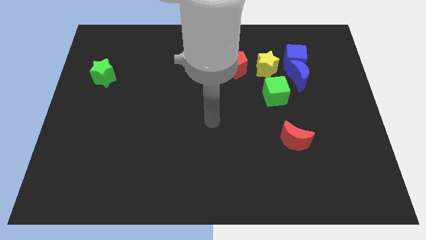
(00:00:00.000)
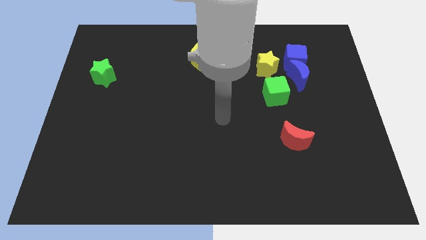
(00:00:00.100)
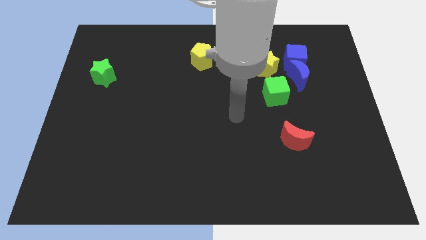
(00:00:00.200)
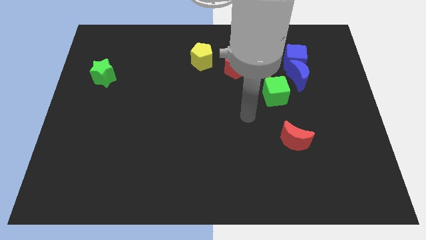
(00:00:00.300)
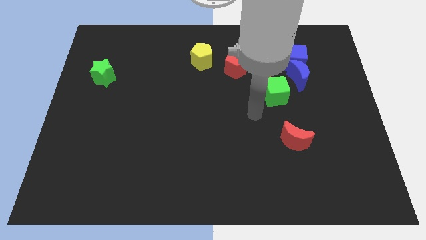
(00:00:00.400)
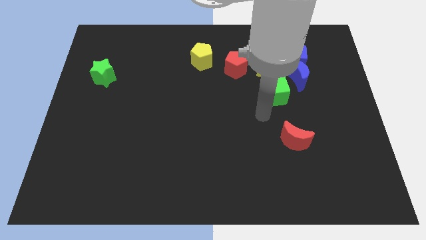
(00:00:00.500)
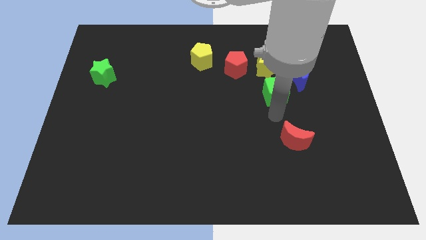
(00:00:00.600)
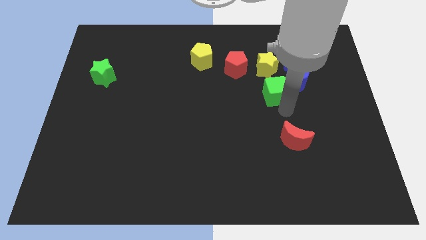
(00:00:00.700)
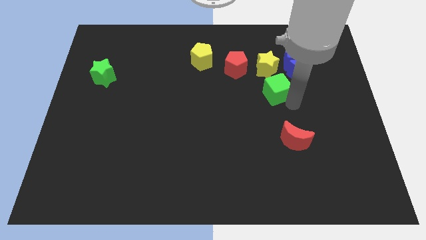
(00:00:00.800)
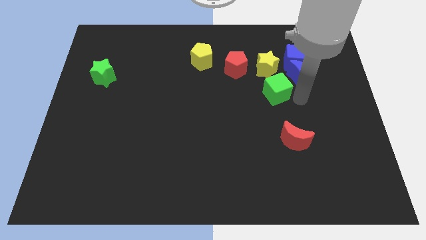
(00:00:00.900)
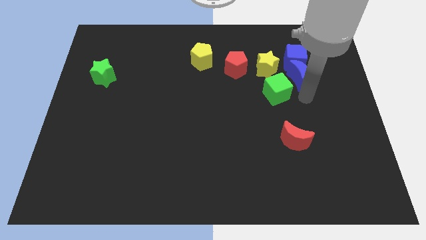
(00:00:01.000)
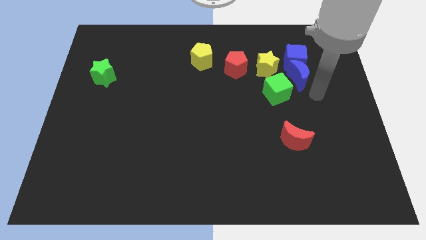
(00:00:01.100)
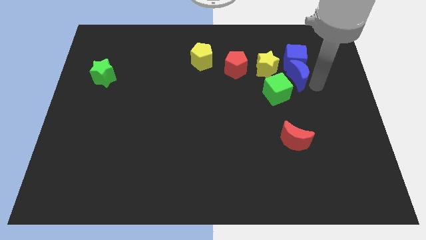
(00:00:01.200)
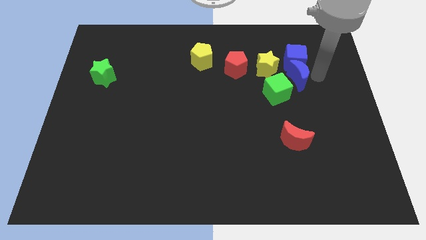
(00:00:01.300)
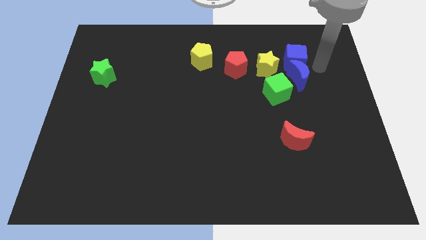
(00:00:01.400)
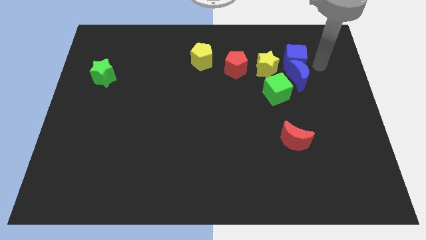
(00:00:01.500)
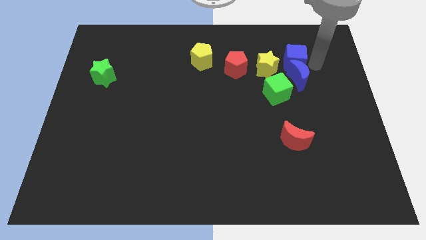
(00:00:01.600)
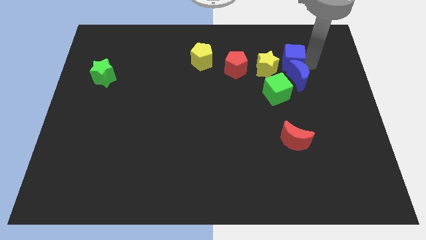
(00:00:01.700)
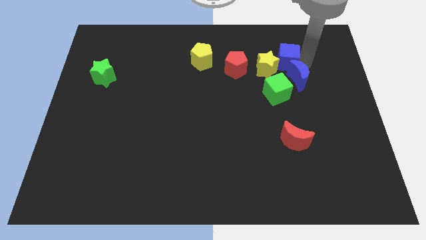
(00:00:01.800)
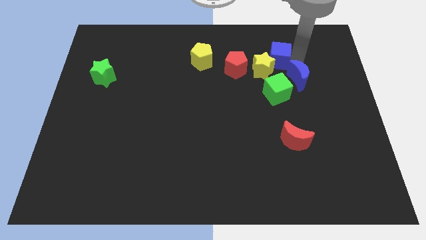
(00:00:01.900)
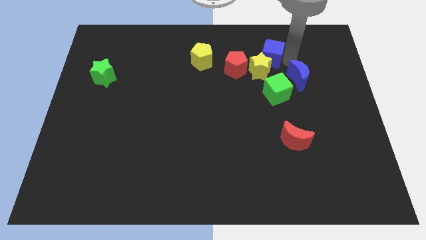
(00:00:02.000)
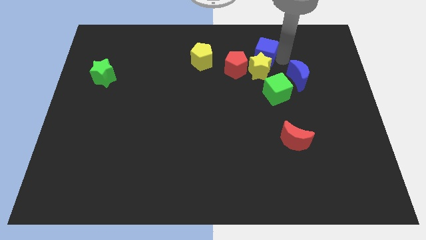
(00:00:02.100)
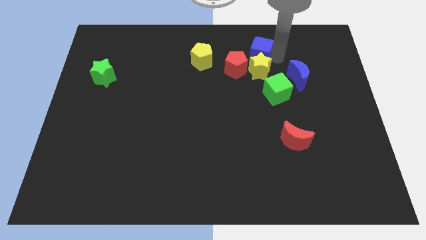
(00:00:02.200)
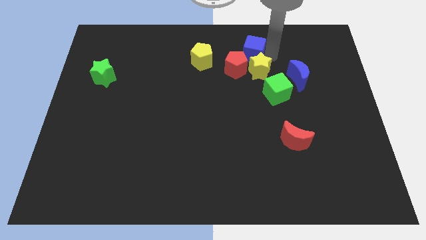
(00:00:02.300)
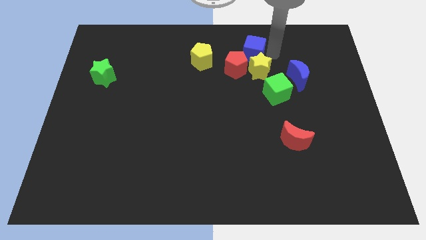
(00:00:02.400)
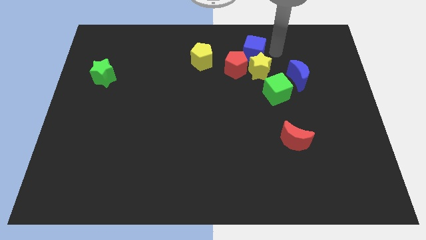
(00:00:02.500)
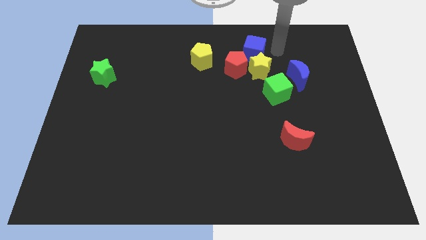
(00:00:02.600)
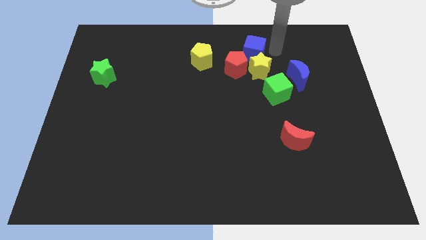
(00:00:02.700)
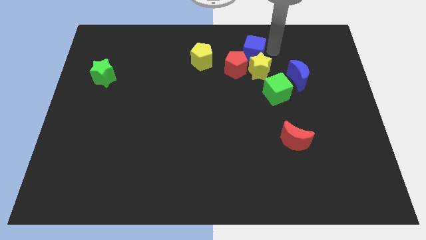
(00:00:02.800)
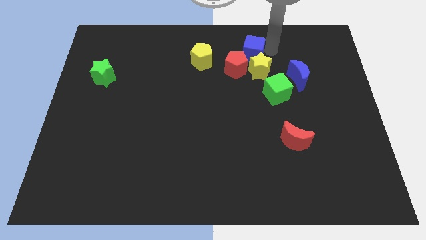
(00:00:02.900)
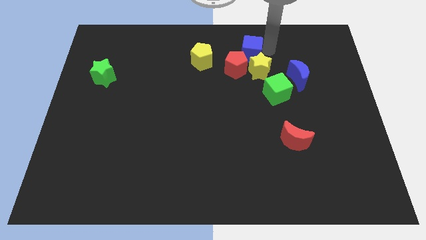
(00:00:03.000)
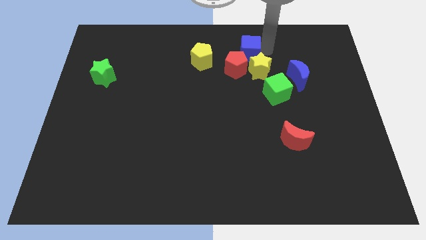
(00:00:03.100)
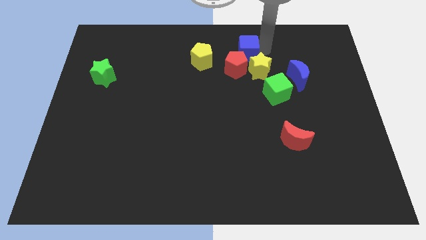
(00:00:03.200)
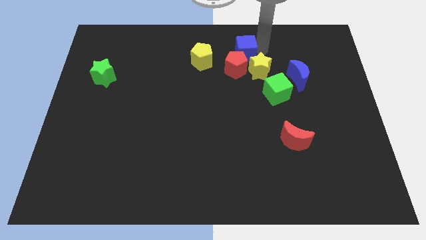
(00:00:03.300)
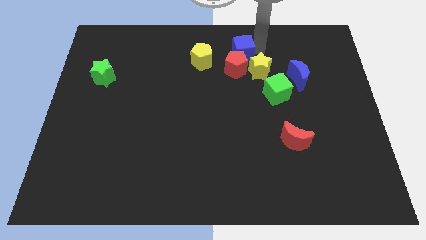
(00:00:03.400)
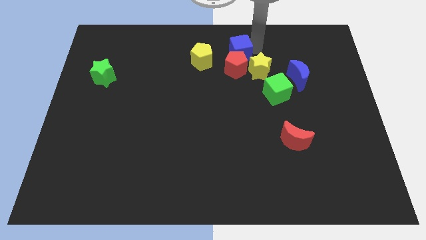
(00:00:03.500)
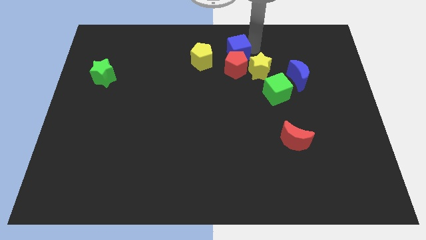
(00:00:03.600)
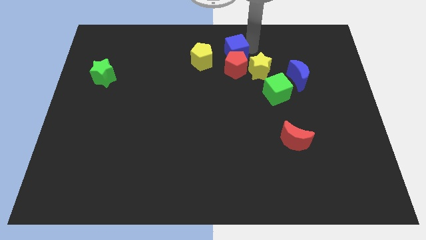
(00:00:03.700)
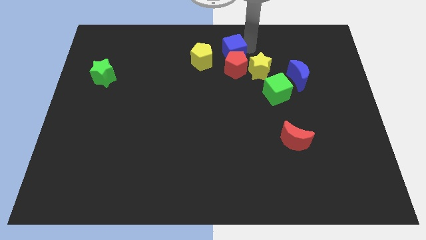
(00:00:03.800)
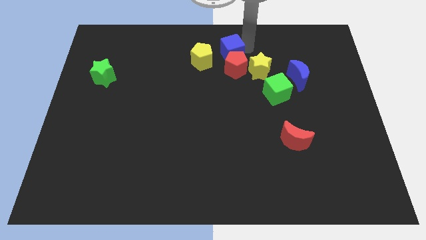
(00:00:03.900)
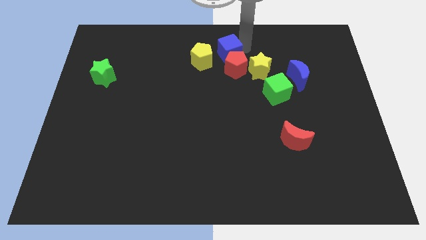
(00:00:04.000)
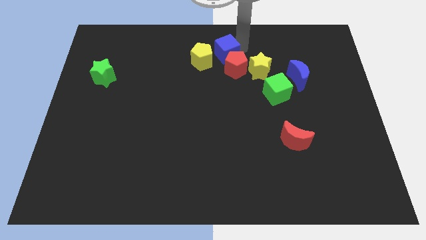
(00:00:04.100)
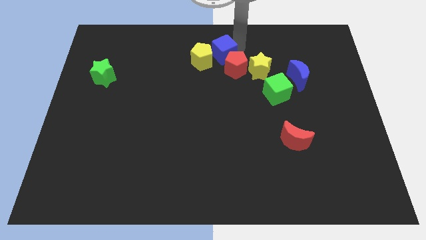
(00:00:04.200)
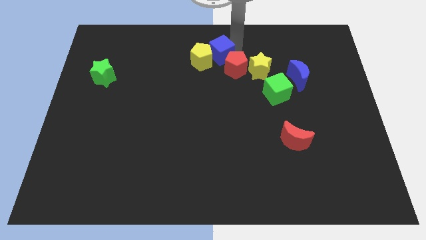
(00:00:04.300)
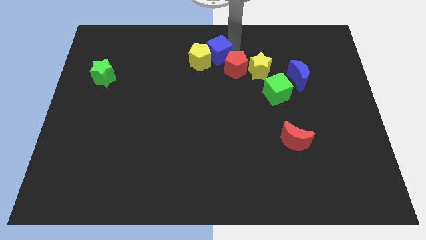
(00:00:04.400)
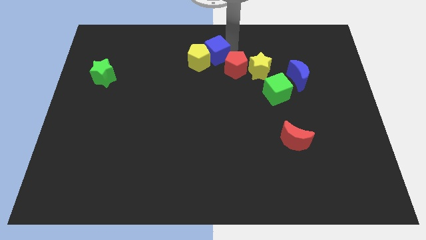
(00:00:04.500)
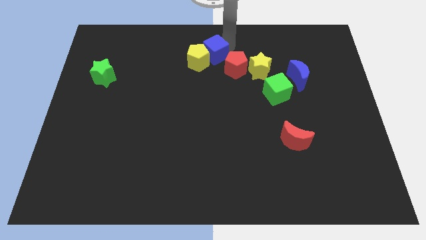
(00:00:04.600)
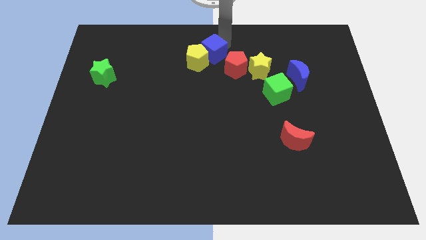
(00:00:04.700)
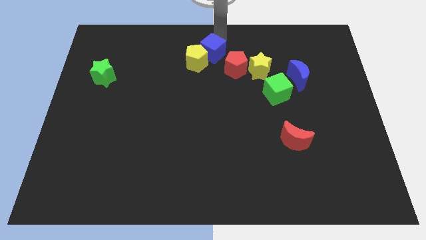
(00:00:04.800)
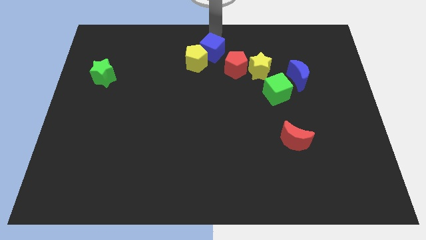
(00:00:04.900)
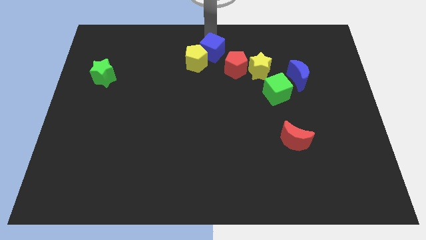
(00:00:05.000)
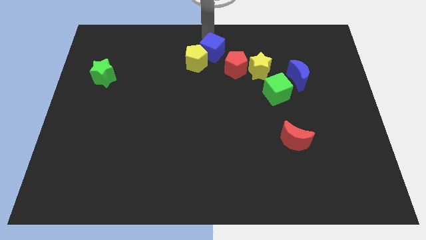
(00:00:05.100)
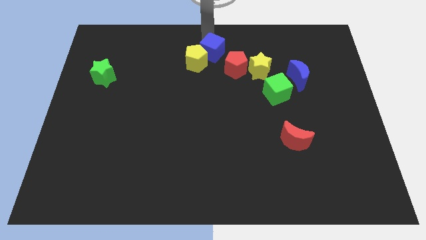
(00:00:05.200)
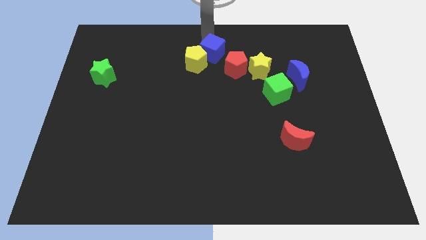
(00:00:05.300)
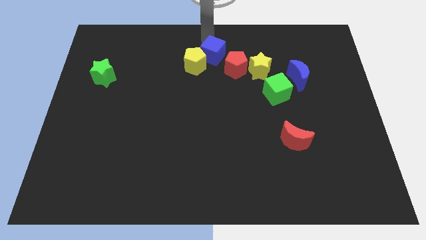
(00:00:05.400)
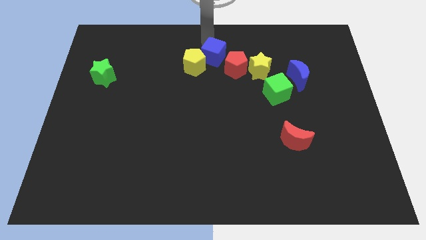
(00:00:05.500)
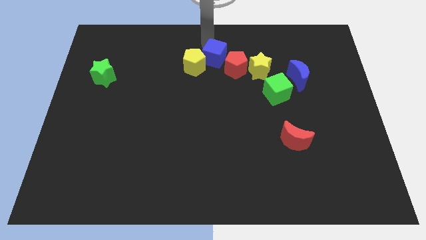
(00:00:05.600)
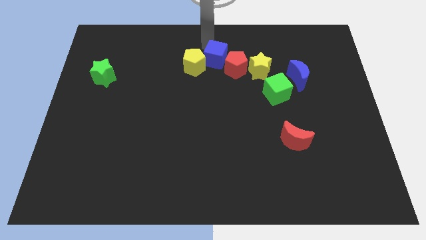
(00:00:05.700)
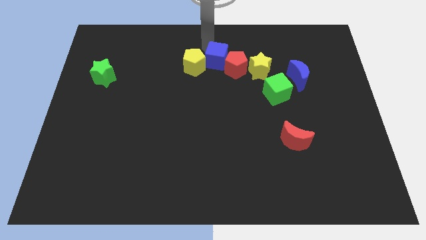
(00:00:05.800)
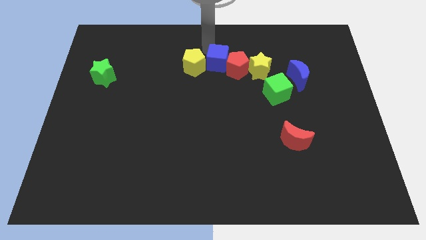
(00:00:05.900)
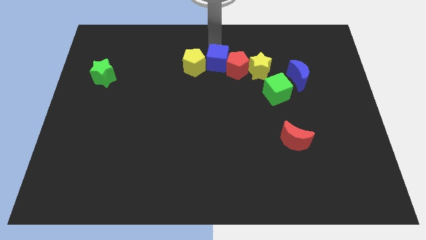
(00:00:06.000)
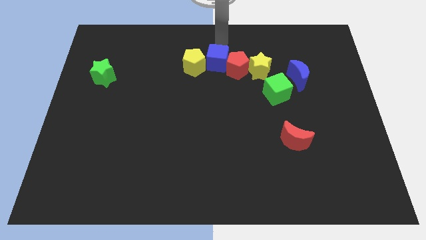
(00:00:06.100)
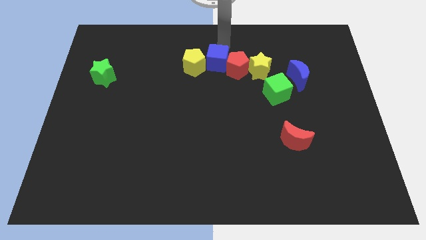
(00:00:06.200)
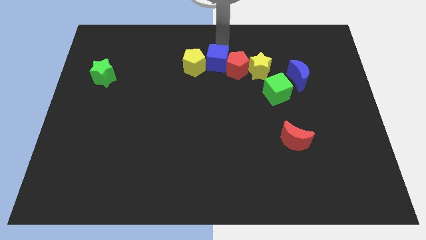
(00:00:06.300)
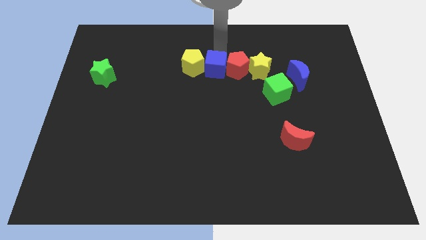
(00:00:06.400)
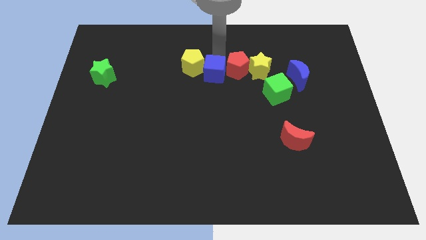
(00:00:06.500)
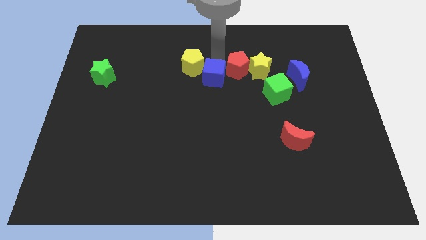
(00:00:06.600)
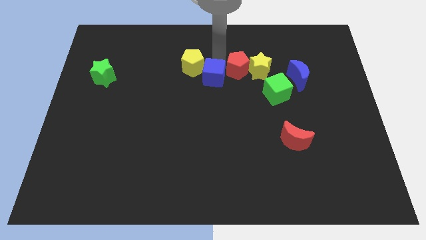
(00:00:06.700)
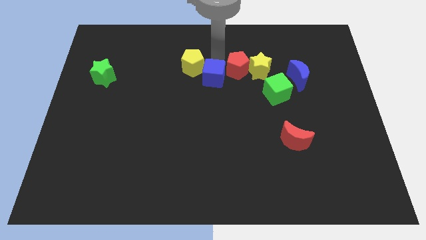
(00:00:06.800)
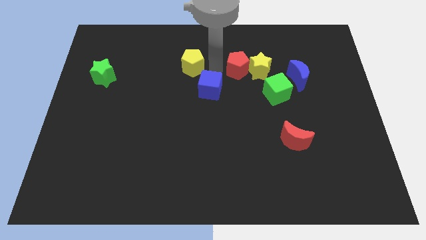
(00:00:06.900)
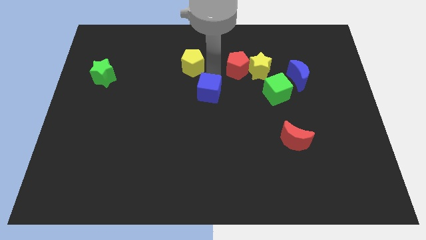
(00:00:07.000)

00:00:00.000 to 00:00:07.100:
slide the blue cube downwards and to the left diagonally

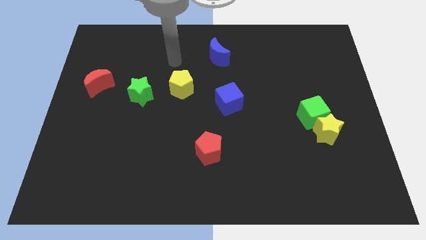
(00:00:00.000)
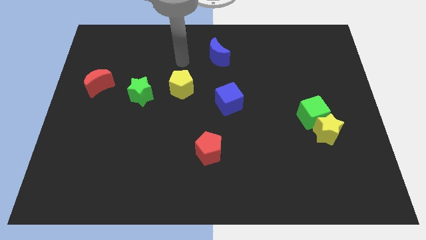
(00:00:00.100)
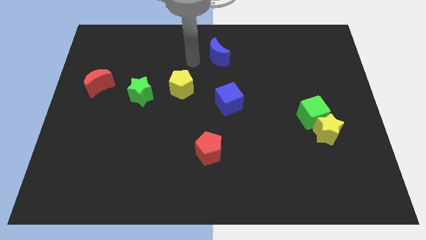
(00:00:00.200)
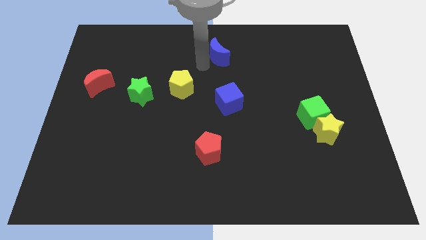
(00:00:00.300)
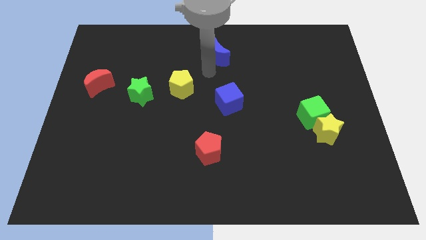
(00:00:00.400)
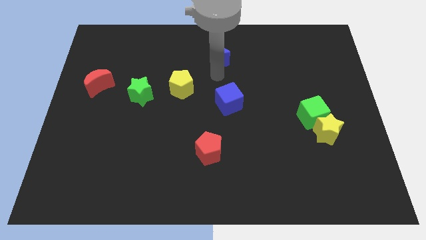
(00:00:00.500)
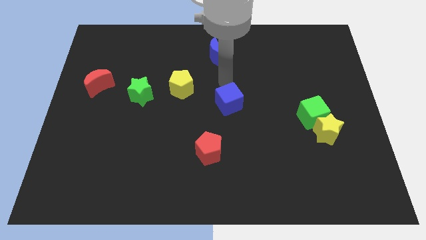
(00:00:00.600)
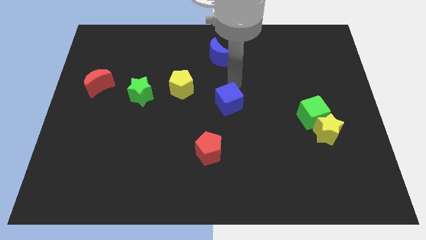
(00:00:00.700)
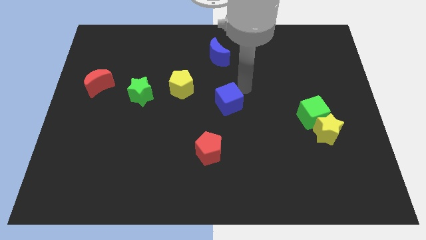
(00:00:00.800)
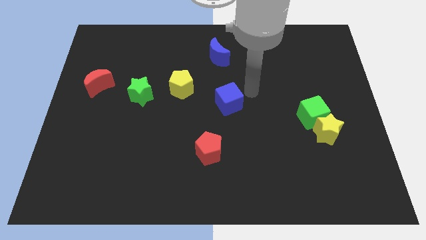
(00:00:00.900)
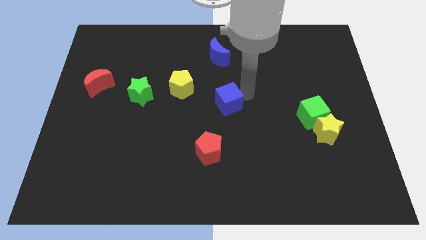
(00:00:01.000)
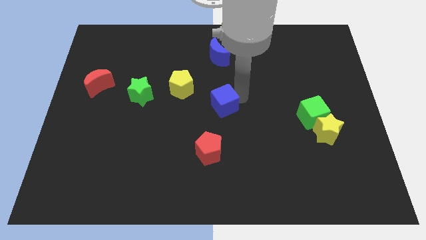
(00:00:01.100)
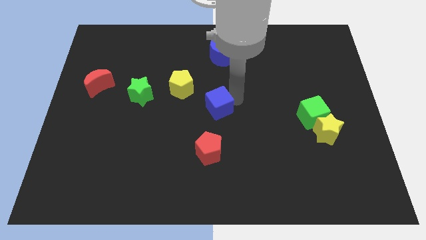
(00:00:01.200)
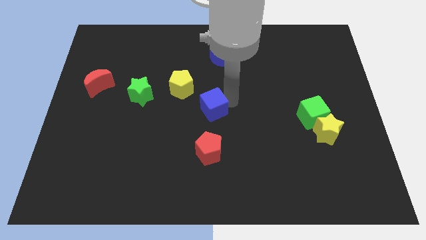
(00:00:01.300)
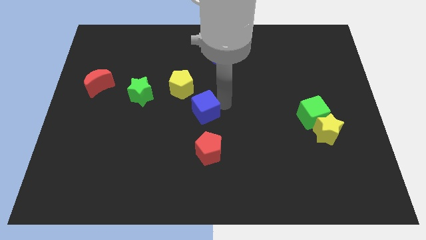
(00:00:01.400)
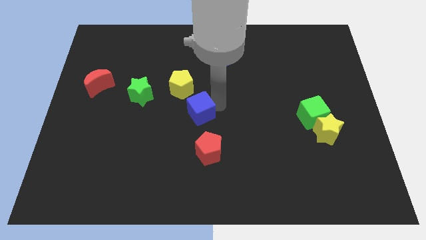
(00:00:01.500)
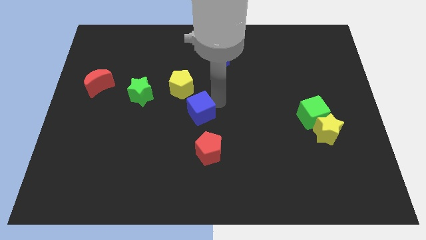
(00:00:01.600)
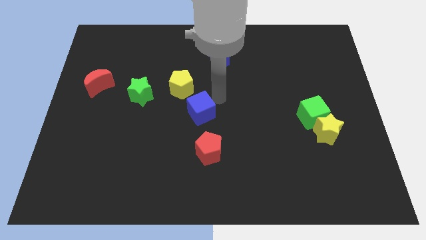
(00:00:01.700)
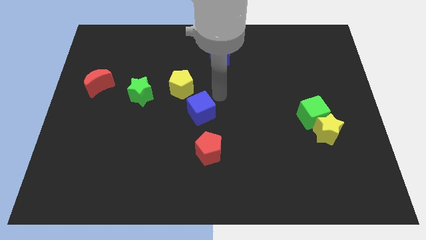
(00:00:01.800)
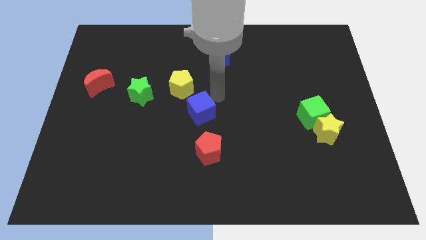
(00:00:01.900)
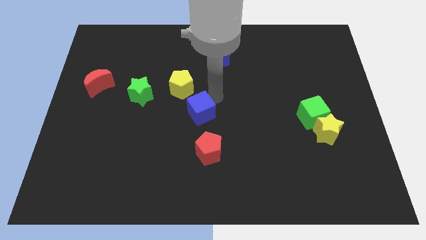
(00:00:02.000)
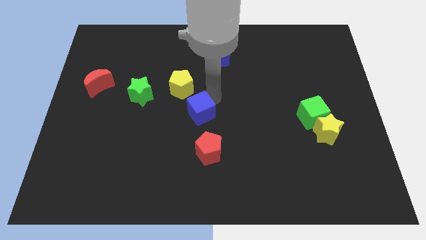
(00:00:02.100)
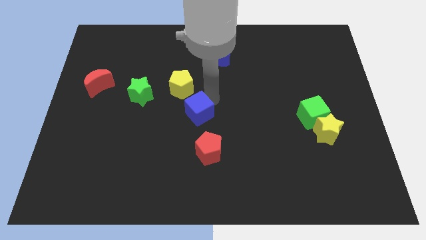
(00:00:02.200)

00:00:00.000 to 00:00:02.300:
move the blue cube down and left diagonally a bit
